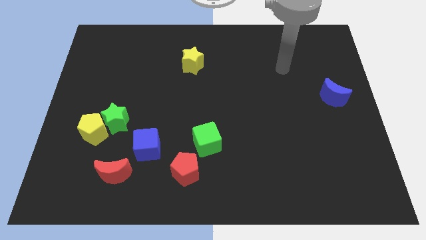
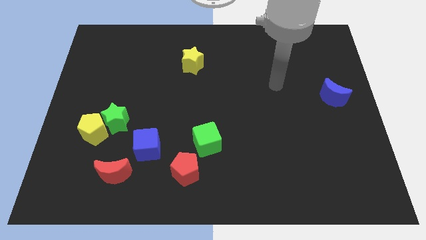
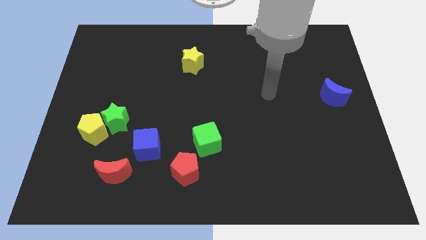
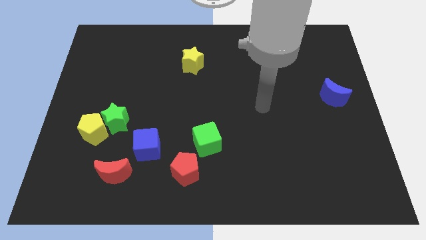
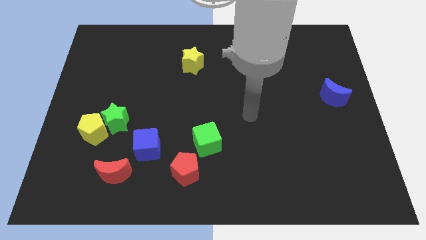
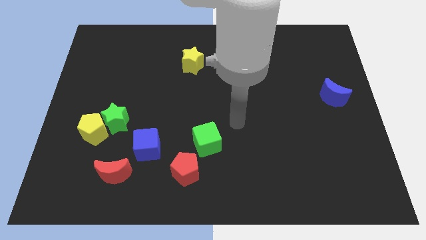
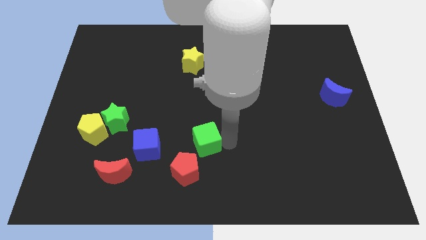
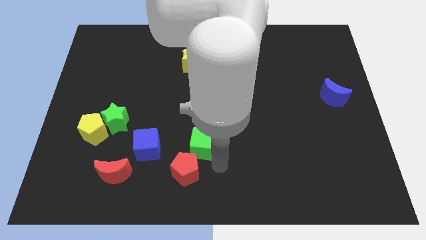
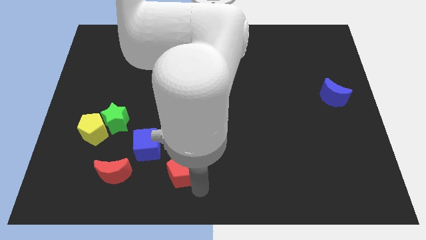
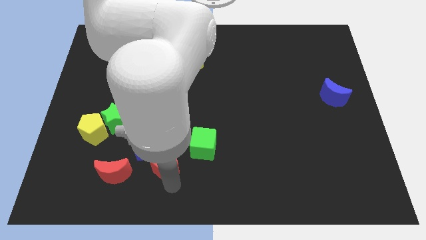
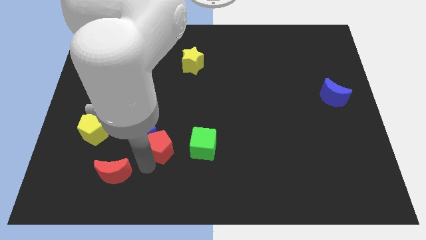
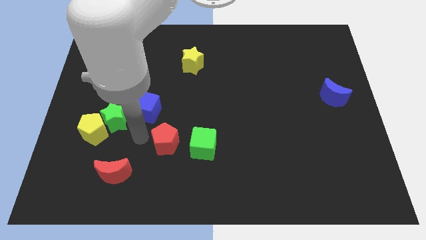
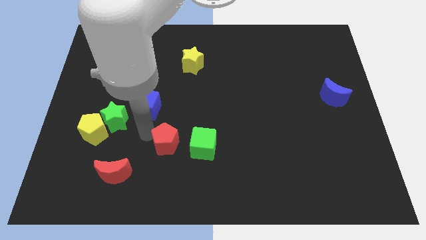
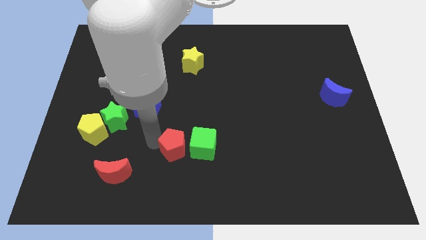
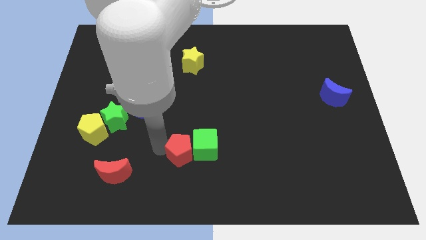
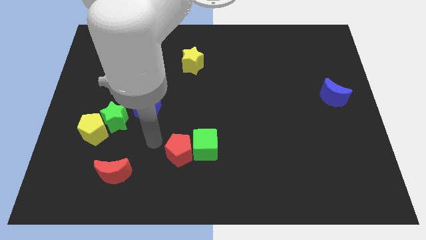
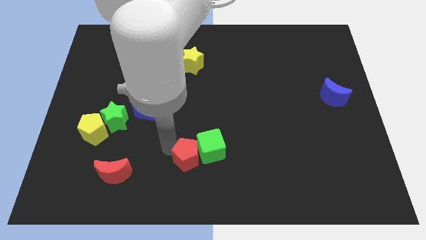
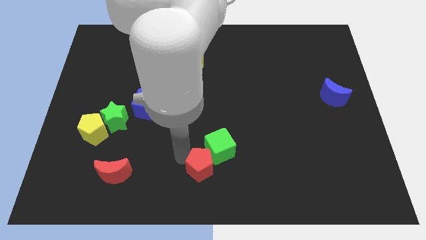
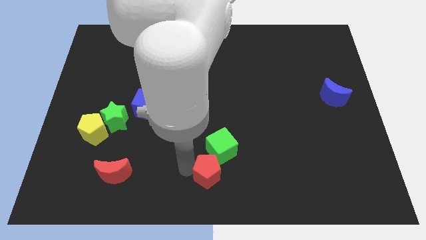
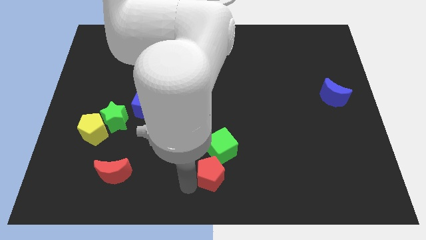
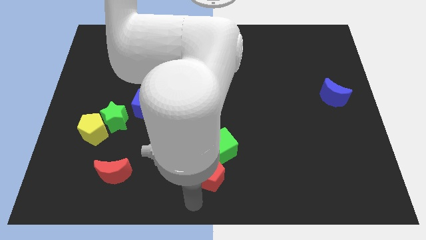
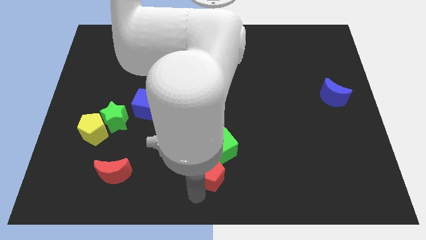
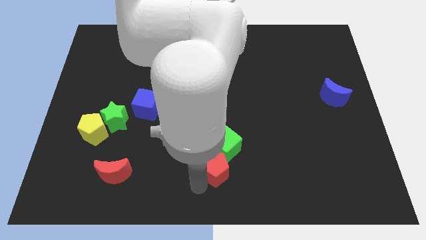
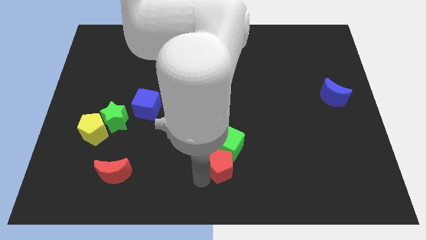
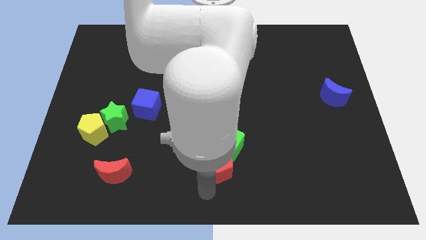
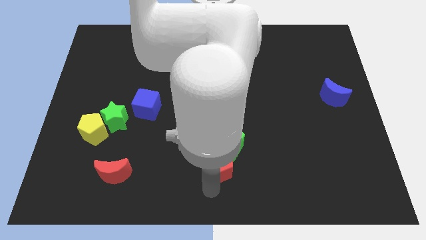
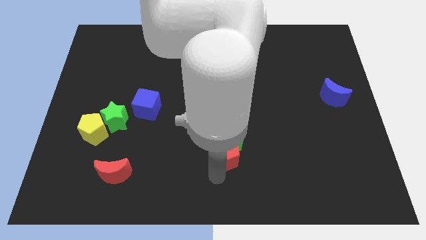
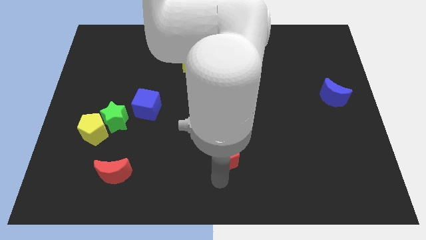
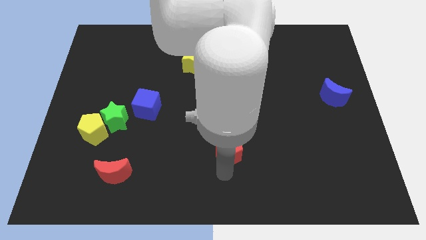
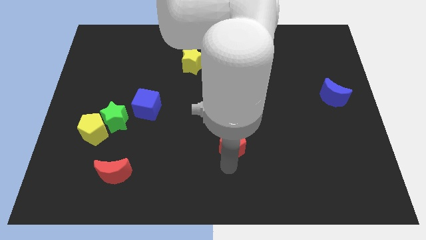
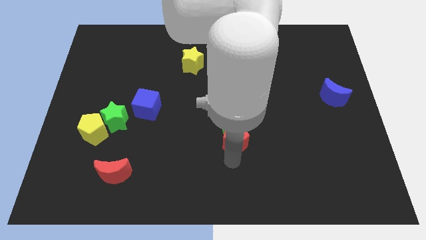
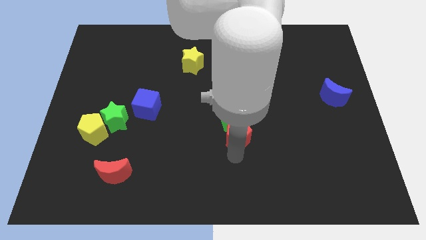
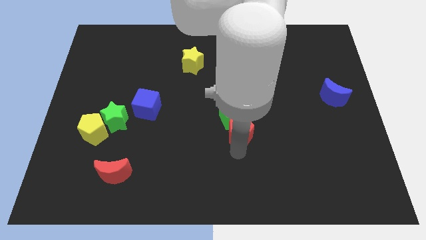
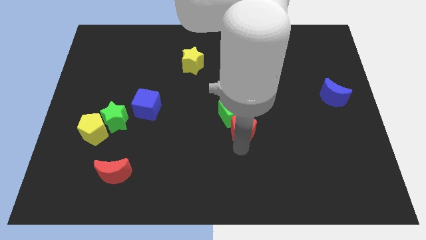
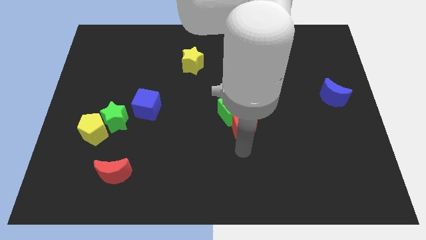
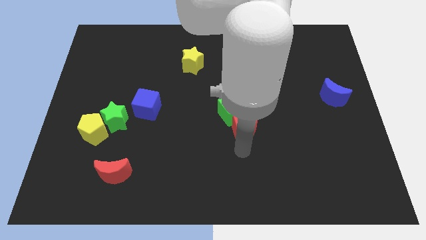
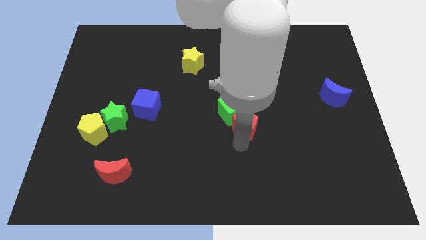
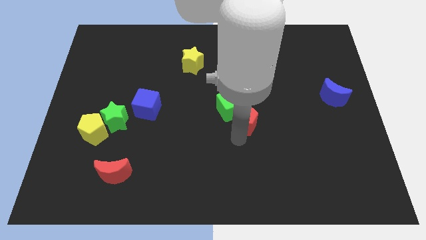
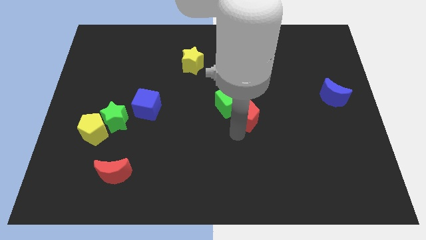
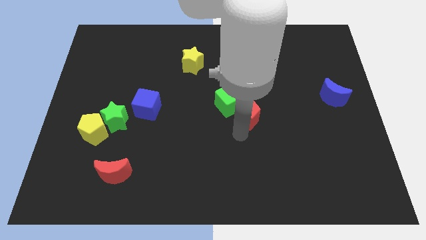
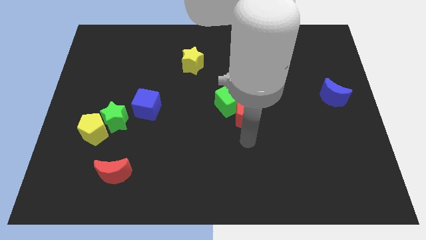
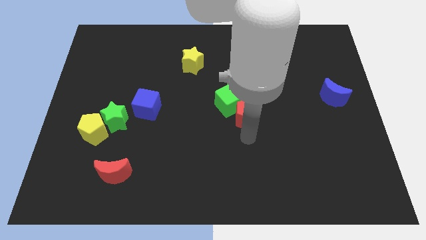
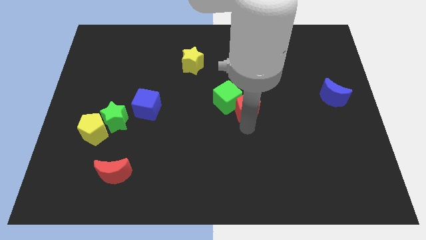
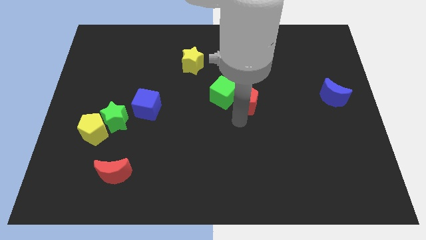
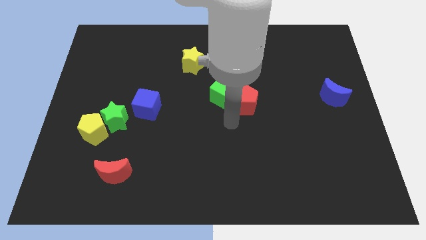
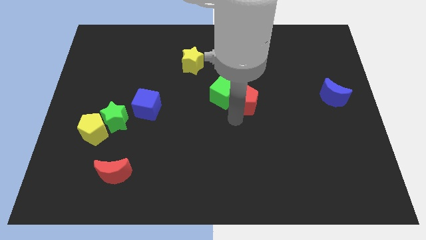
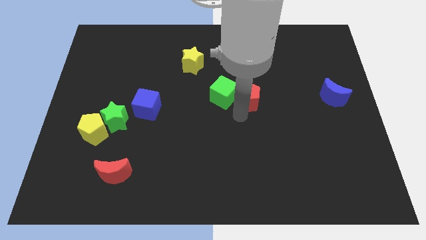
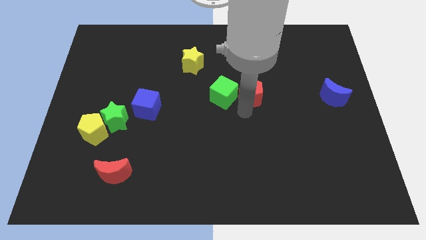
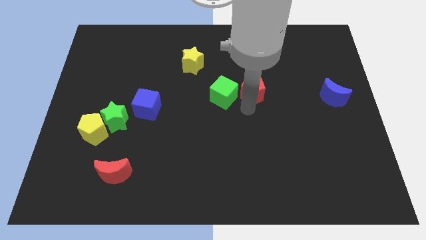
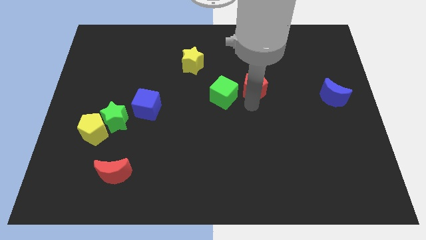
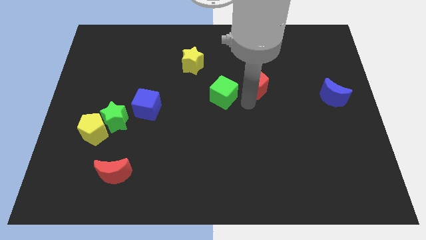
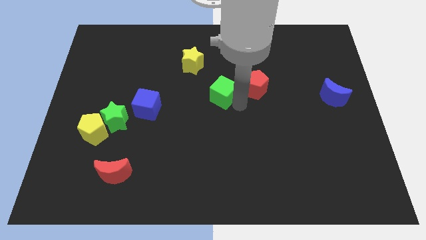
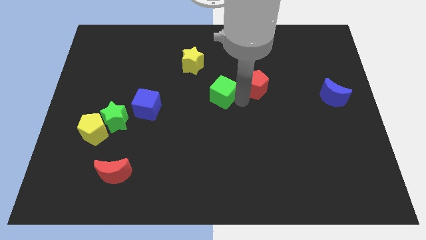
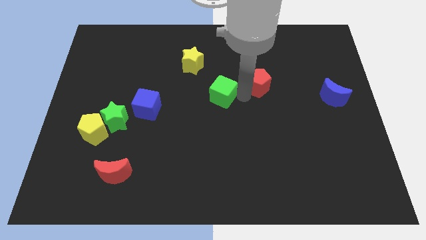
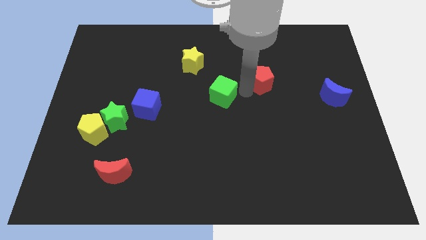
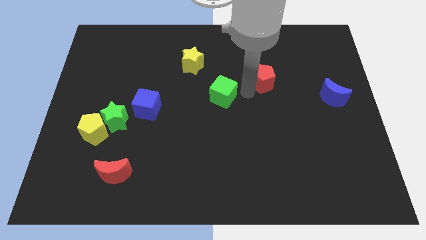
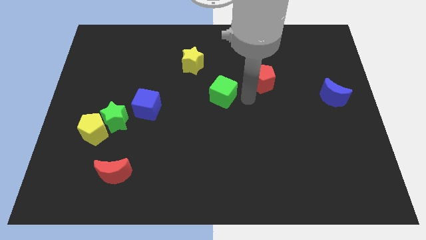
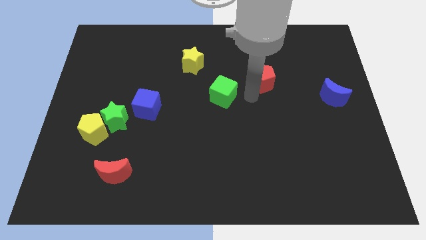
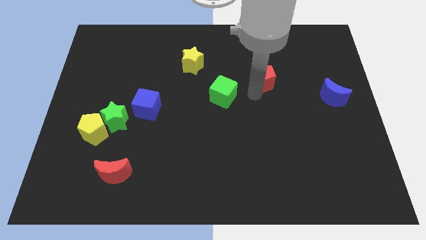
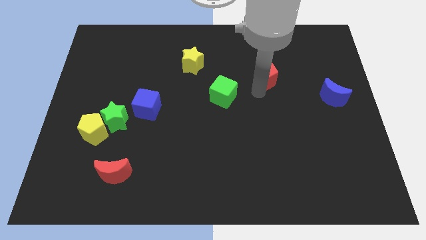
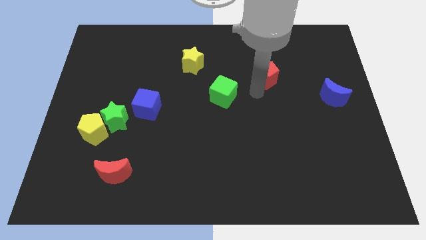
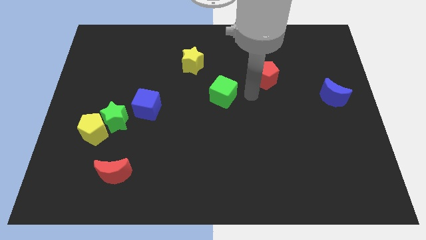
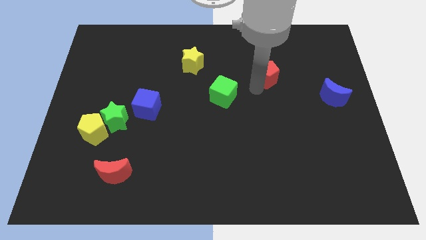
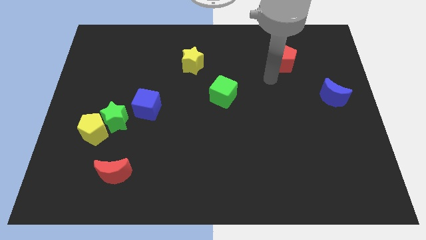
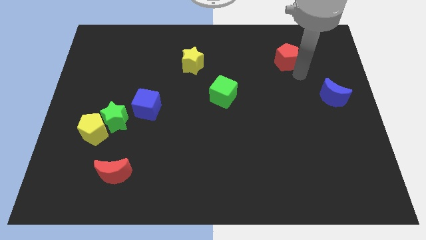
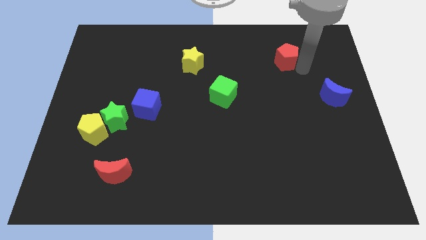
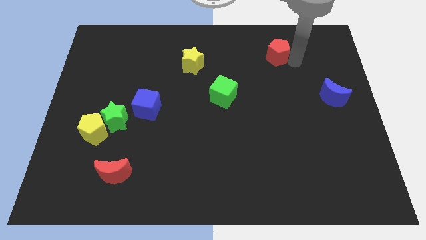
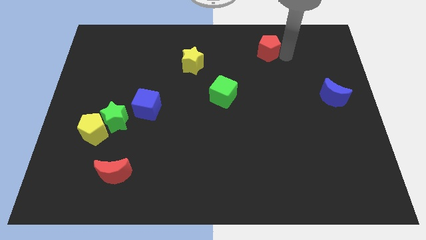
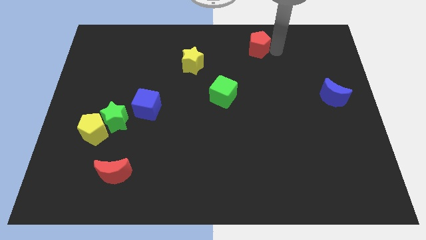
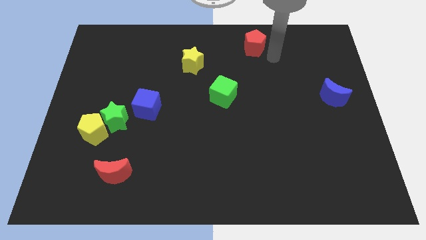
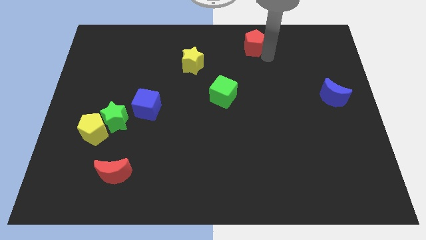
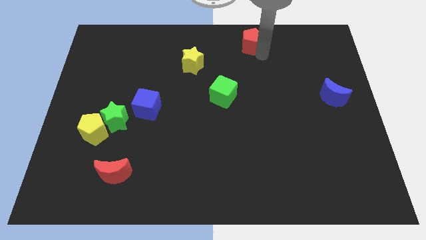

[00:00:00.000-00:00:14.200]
put the red pentagon to the top side
